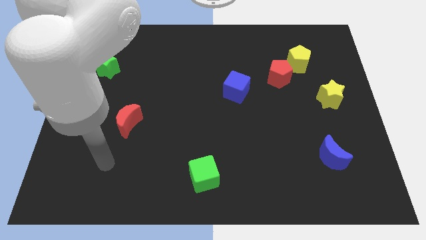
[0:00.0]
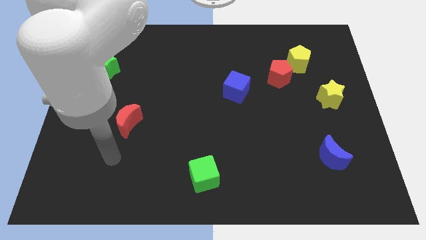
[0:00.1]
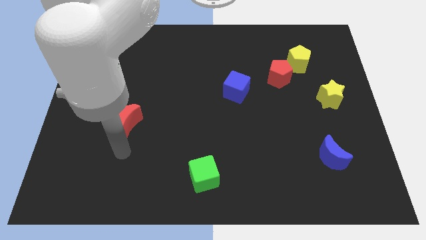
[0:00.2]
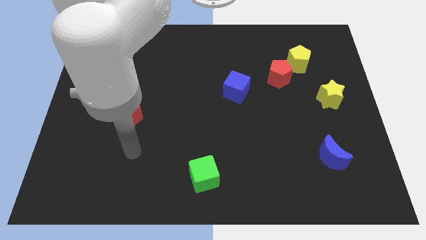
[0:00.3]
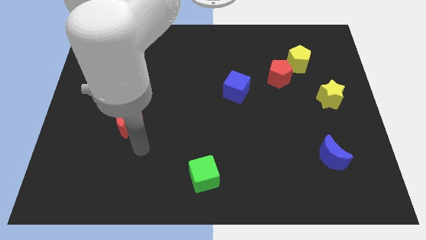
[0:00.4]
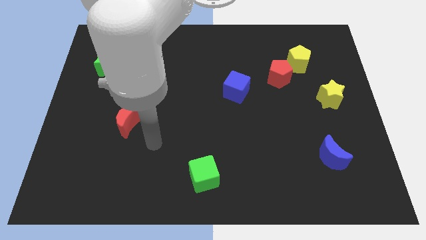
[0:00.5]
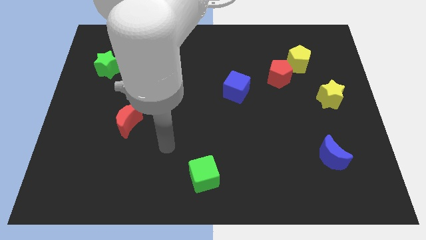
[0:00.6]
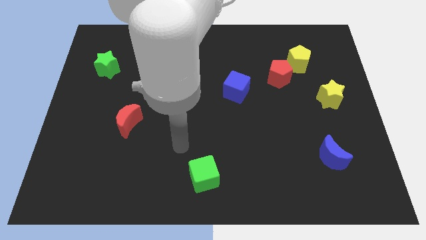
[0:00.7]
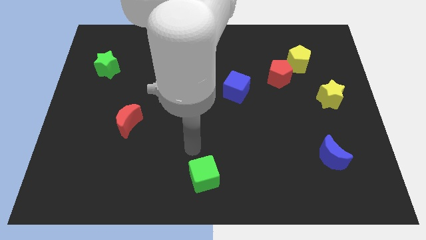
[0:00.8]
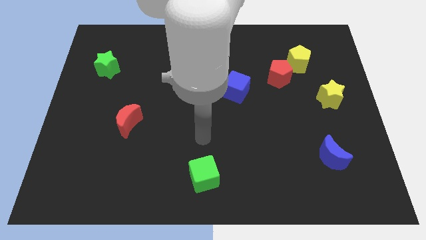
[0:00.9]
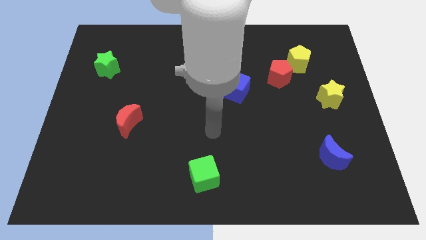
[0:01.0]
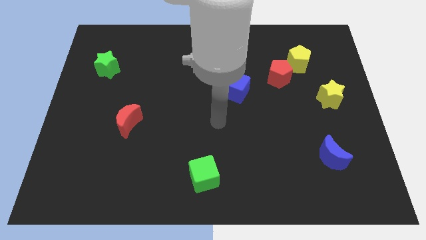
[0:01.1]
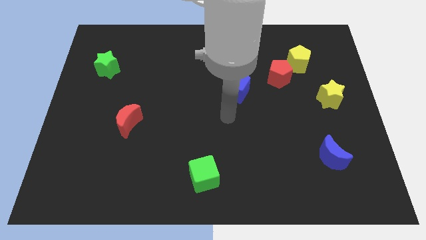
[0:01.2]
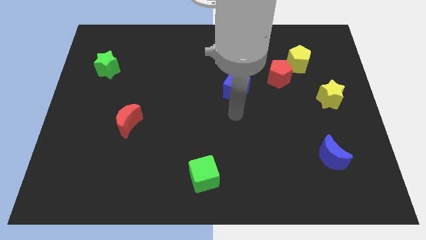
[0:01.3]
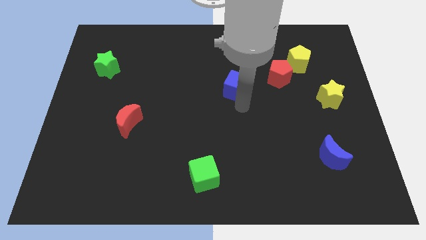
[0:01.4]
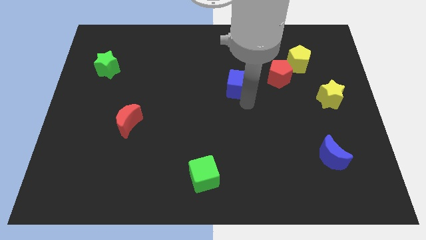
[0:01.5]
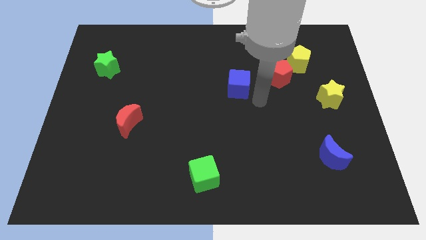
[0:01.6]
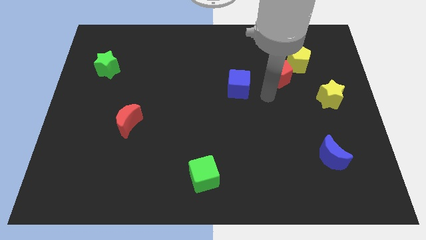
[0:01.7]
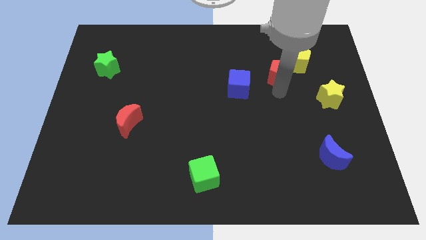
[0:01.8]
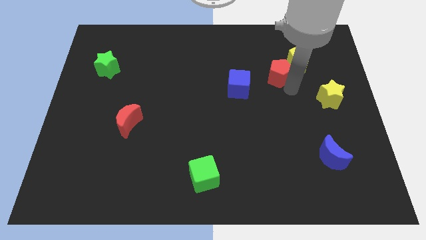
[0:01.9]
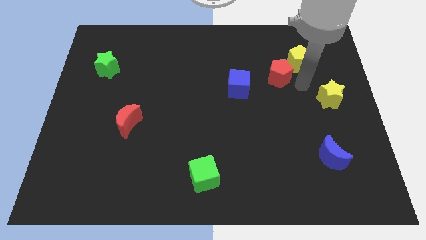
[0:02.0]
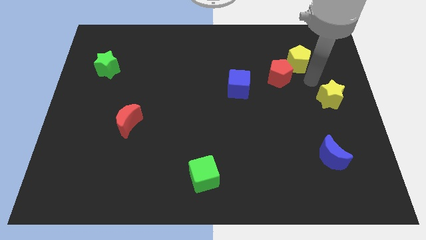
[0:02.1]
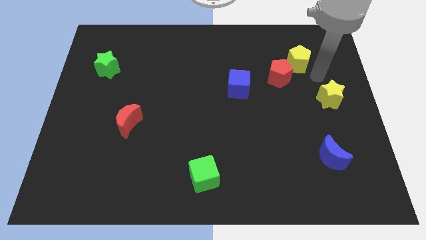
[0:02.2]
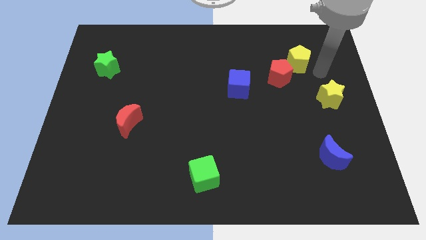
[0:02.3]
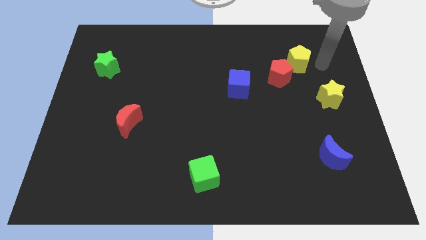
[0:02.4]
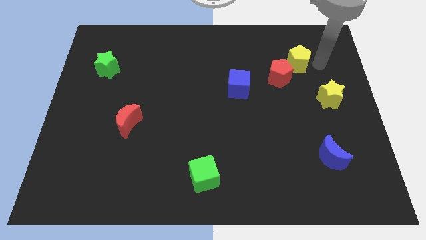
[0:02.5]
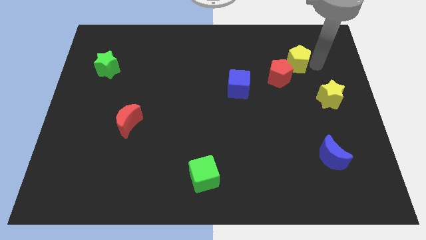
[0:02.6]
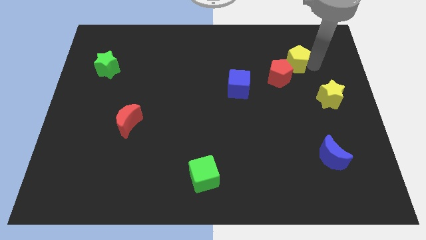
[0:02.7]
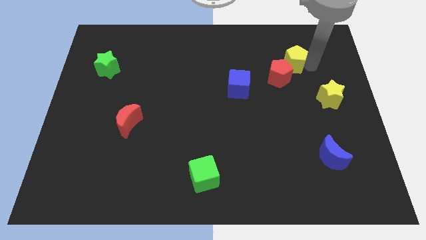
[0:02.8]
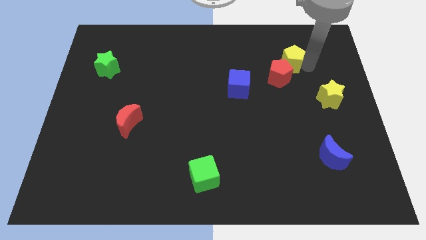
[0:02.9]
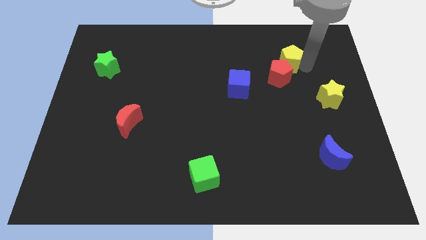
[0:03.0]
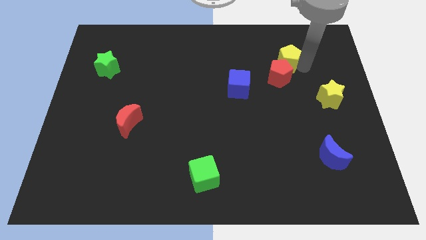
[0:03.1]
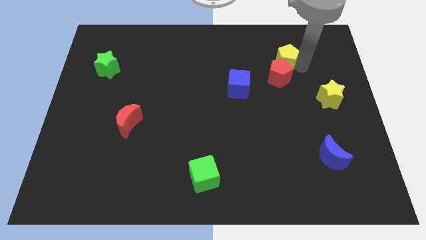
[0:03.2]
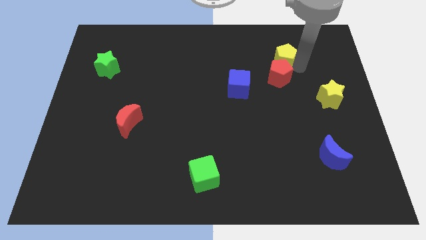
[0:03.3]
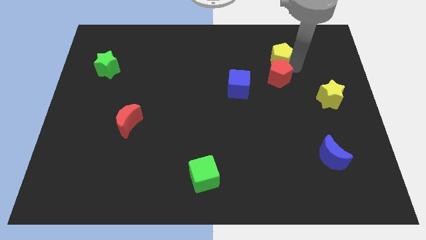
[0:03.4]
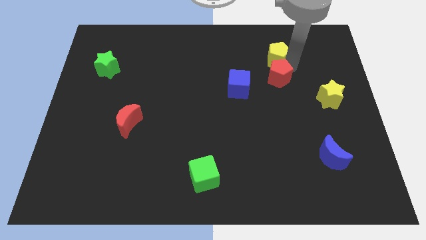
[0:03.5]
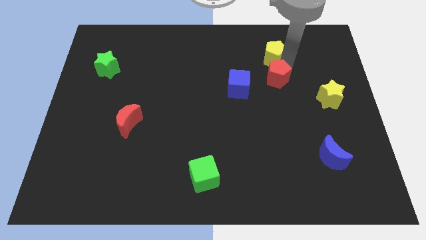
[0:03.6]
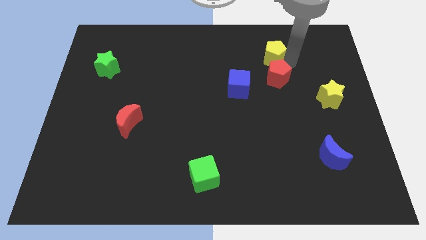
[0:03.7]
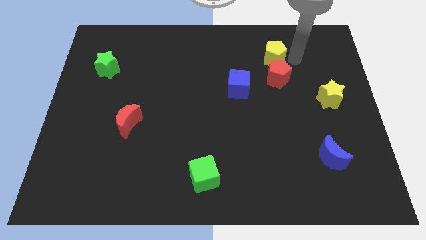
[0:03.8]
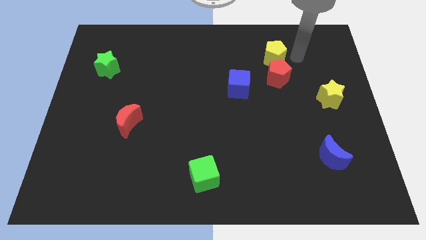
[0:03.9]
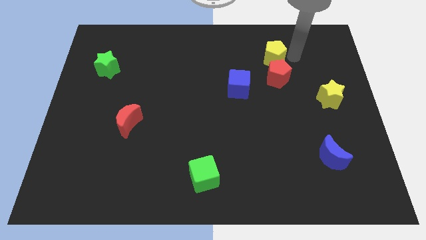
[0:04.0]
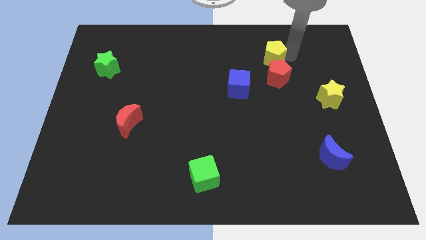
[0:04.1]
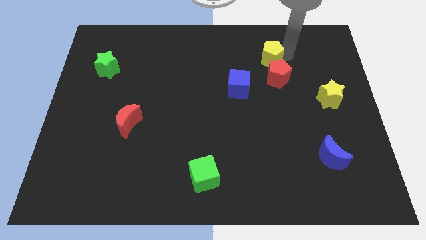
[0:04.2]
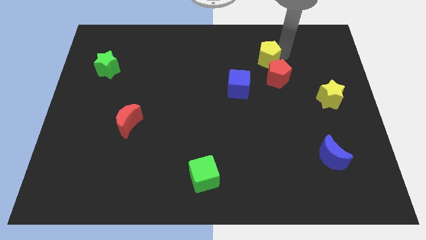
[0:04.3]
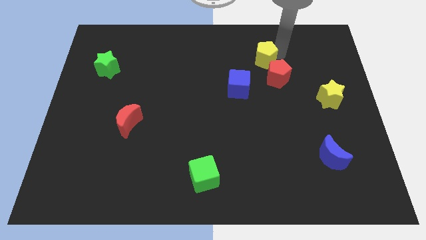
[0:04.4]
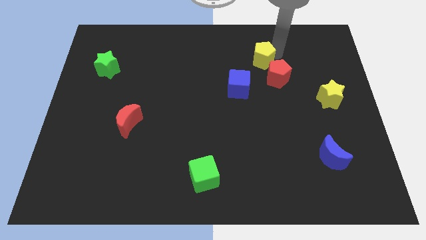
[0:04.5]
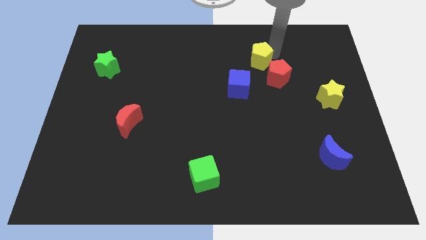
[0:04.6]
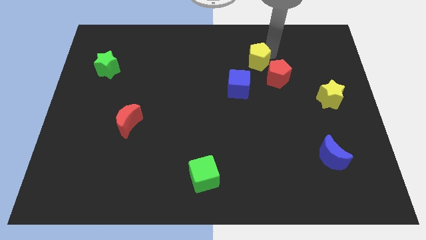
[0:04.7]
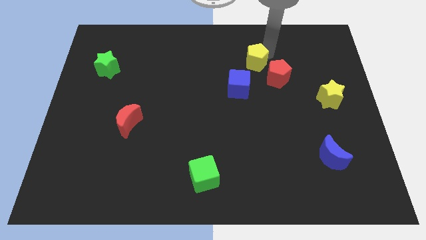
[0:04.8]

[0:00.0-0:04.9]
move the yellow pentagon to the top of the blue cube

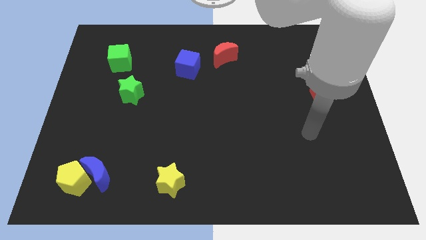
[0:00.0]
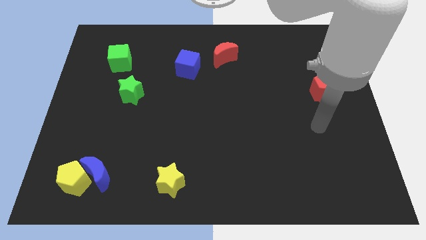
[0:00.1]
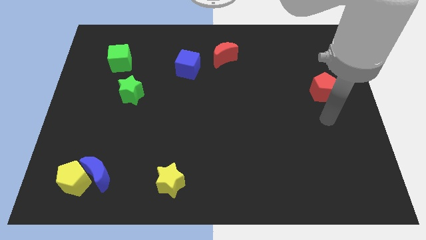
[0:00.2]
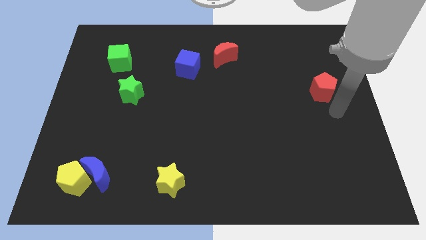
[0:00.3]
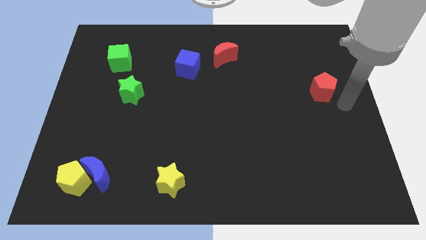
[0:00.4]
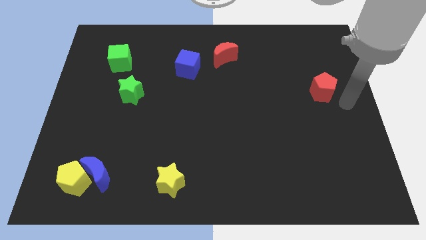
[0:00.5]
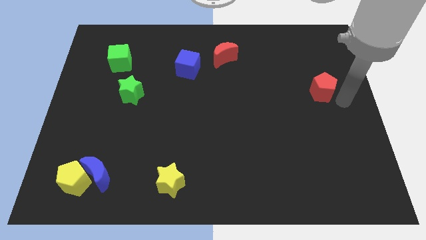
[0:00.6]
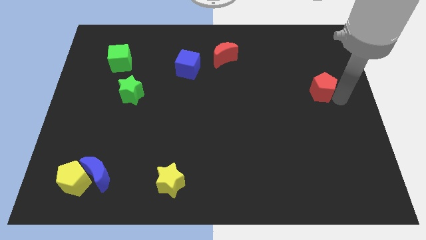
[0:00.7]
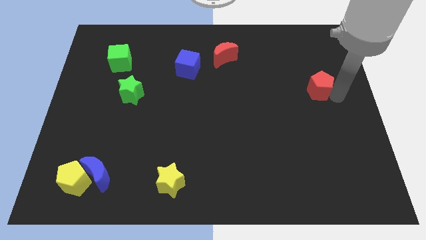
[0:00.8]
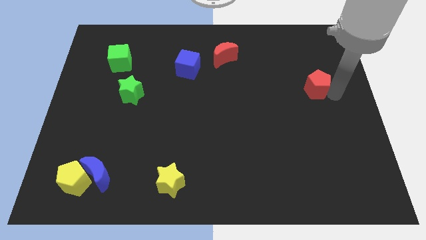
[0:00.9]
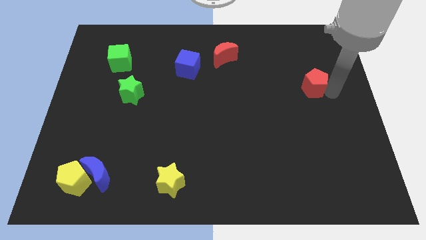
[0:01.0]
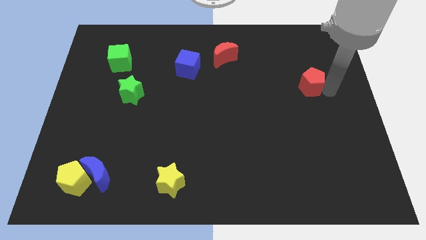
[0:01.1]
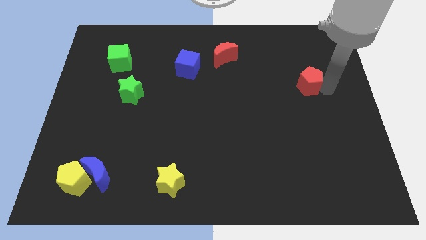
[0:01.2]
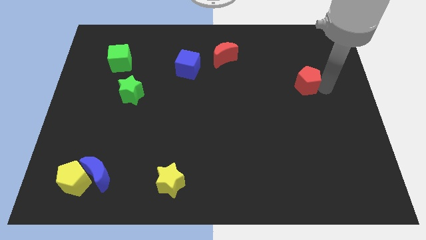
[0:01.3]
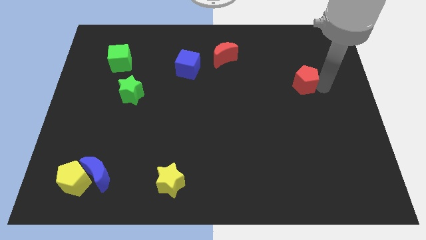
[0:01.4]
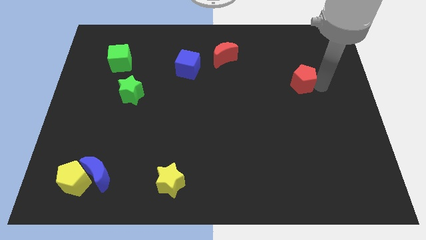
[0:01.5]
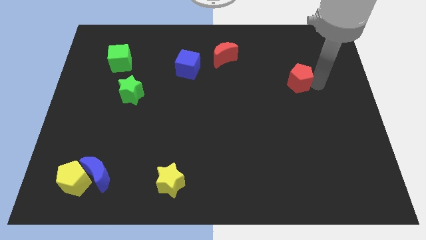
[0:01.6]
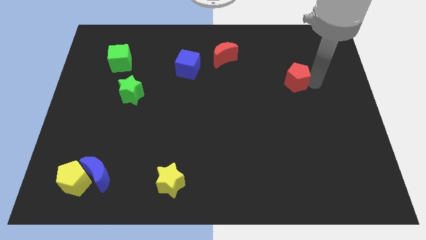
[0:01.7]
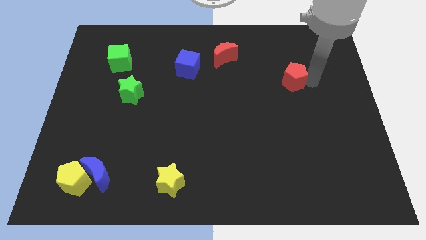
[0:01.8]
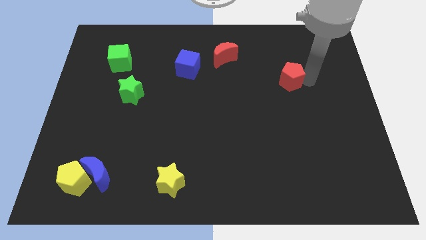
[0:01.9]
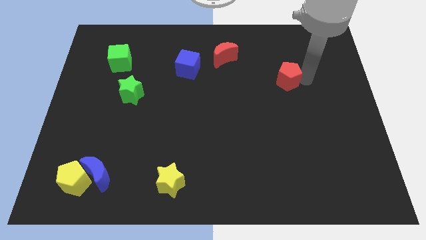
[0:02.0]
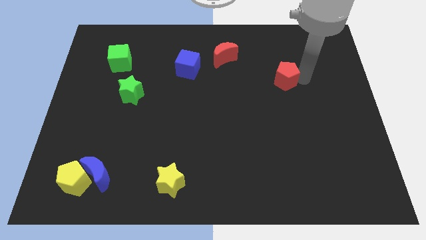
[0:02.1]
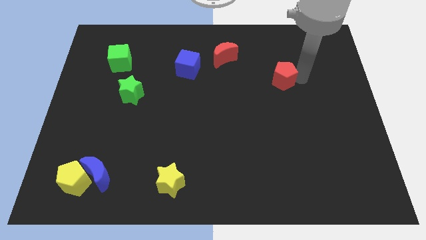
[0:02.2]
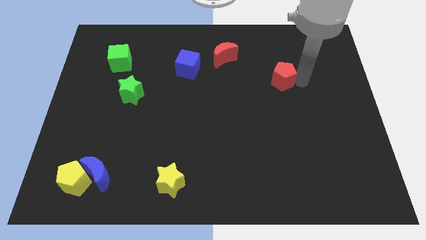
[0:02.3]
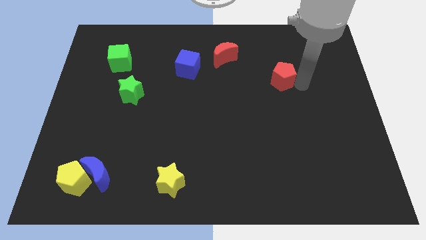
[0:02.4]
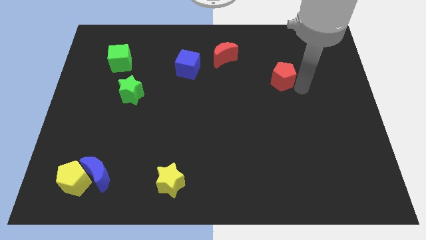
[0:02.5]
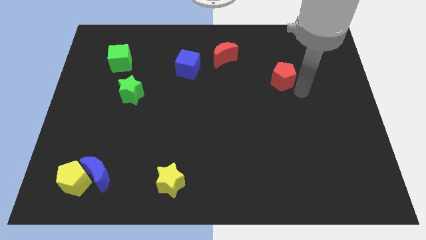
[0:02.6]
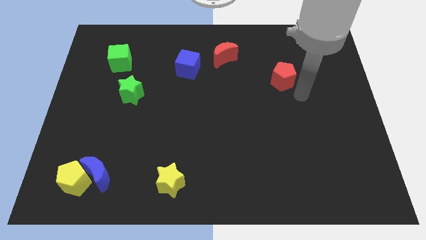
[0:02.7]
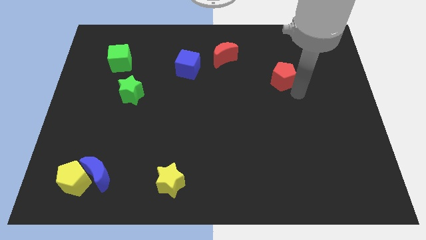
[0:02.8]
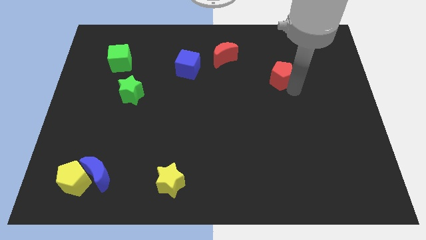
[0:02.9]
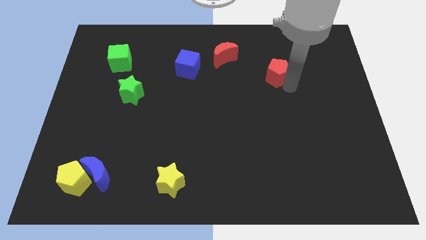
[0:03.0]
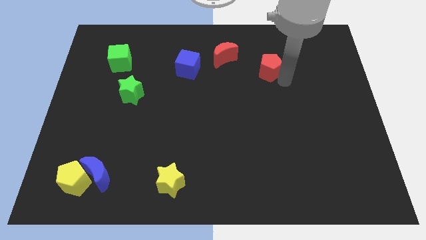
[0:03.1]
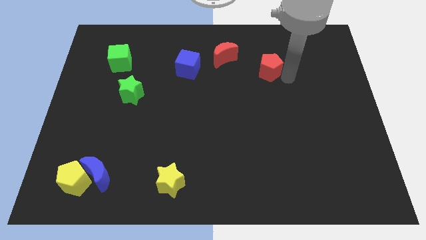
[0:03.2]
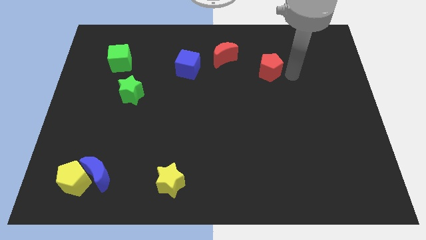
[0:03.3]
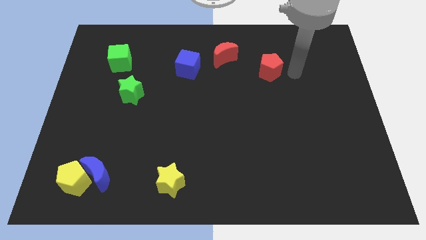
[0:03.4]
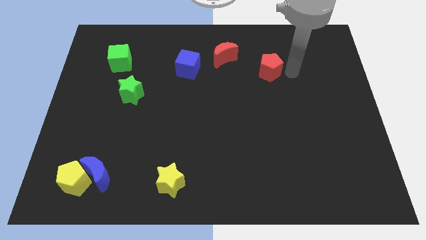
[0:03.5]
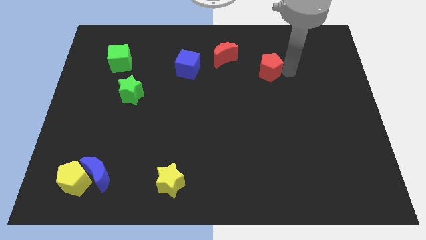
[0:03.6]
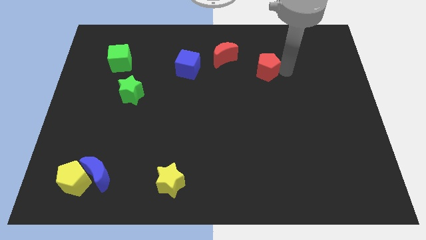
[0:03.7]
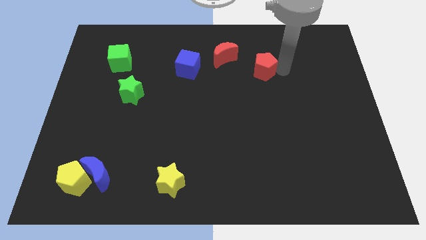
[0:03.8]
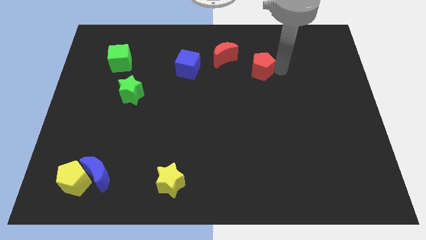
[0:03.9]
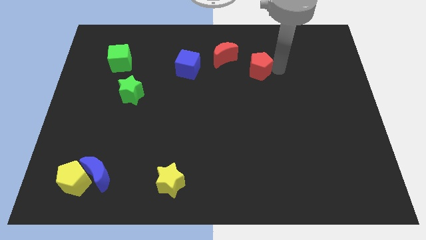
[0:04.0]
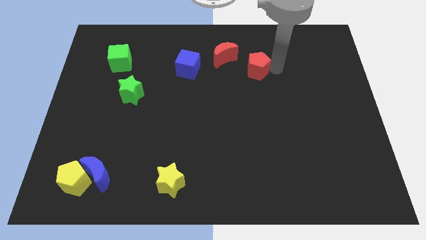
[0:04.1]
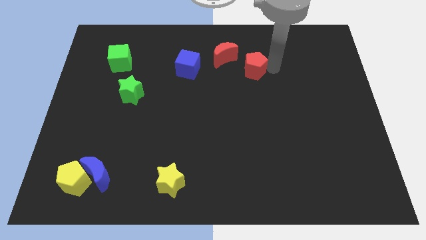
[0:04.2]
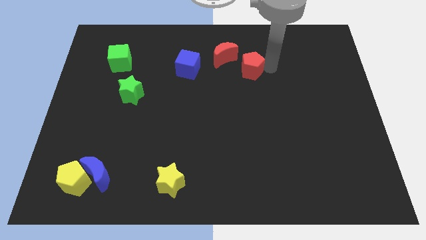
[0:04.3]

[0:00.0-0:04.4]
slide the red pentagon just right of the blue cube
